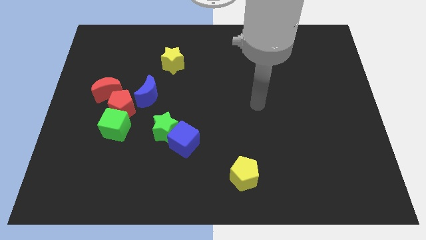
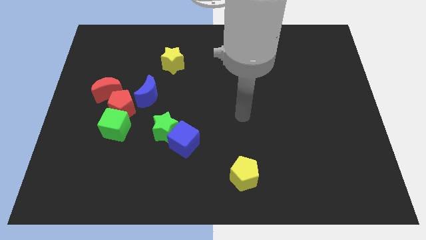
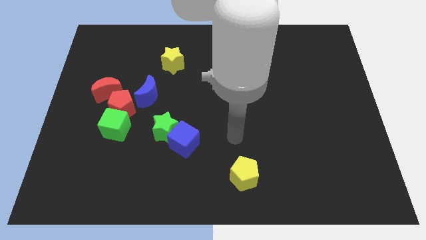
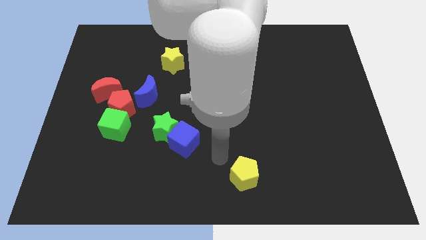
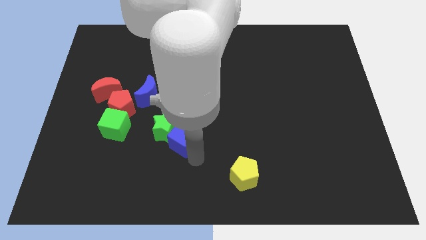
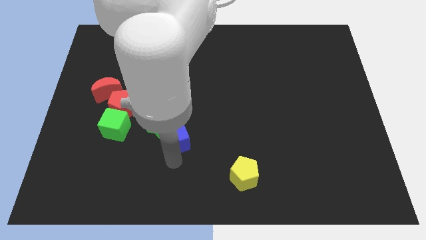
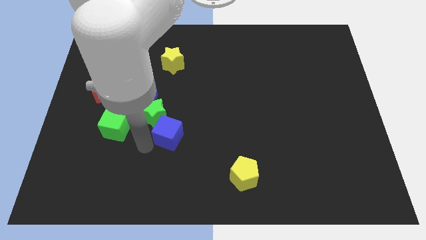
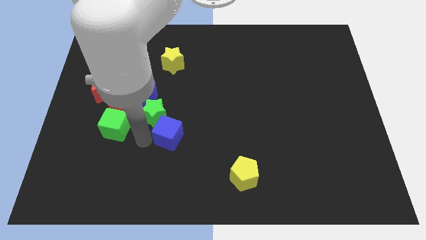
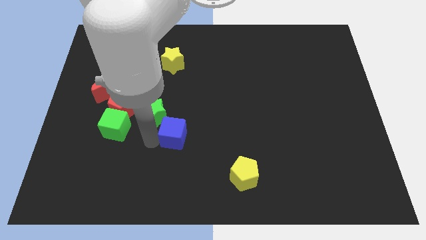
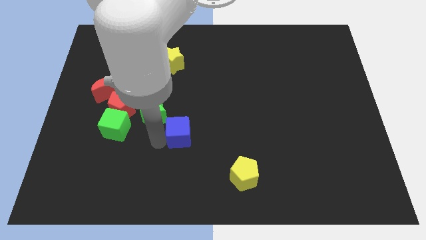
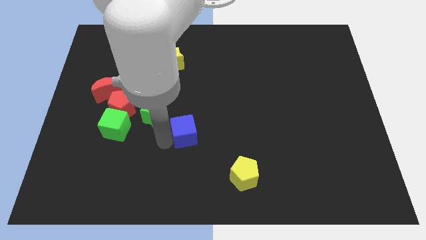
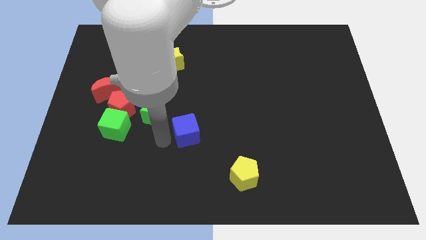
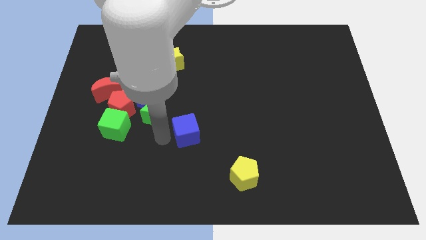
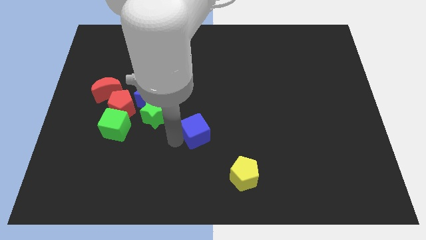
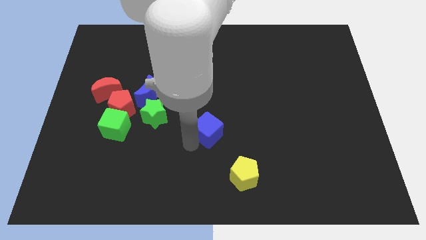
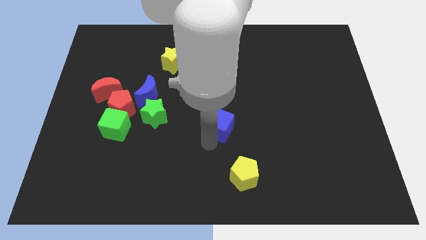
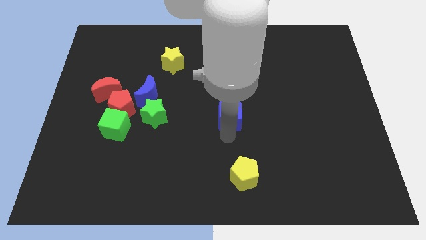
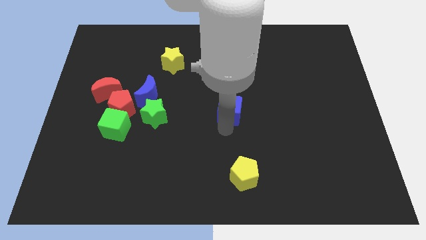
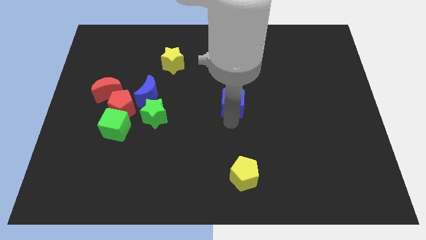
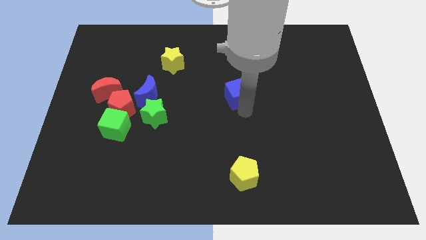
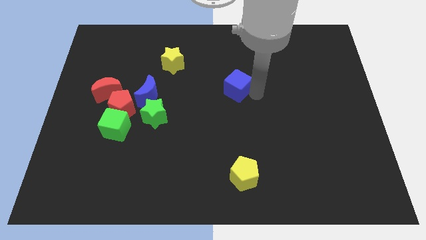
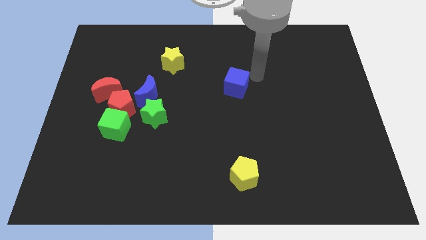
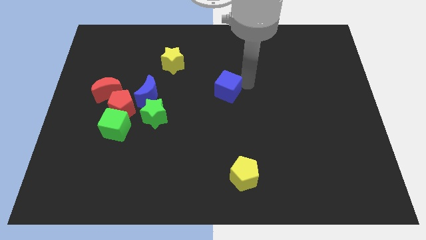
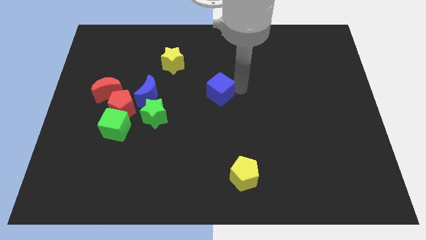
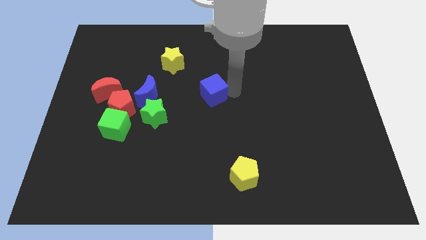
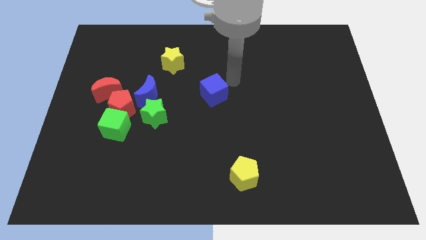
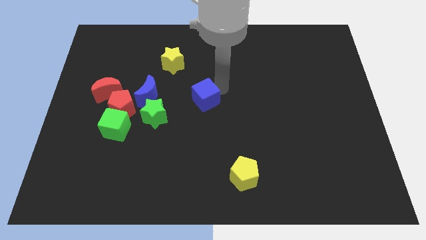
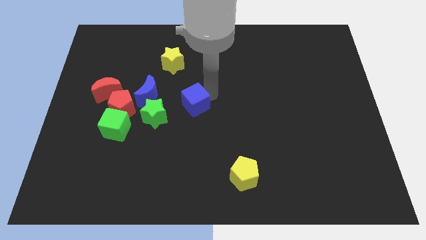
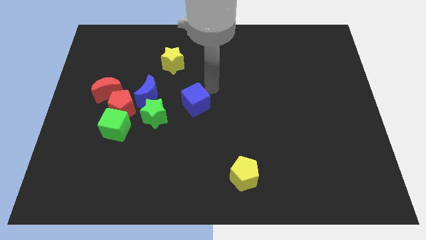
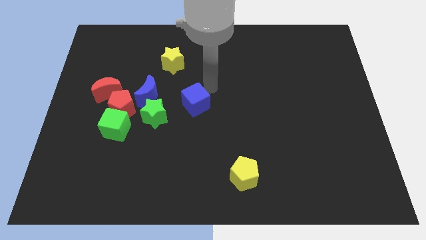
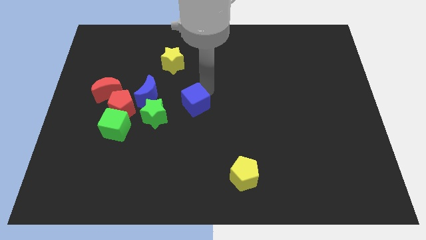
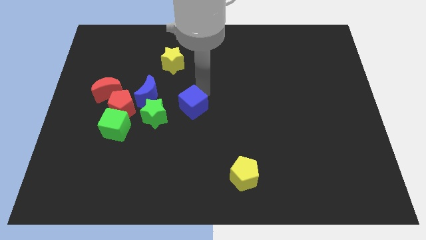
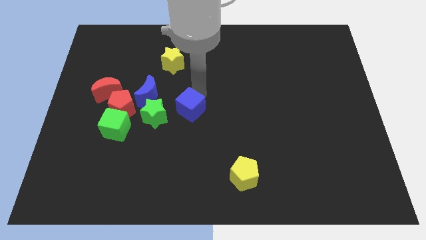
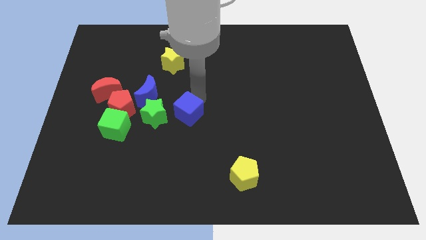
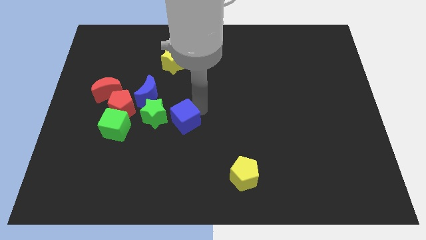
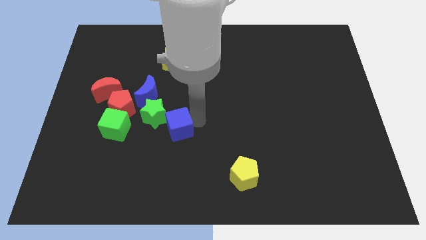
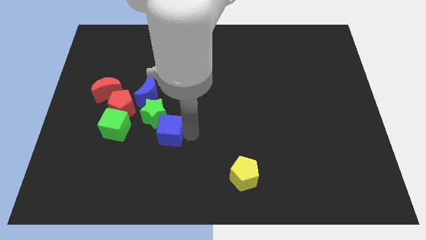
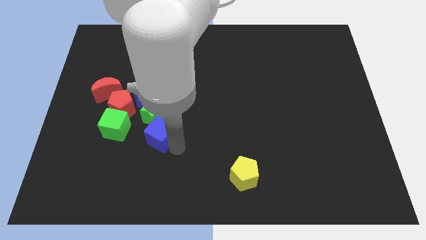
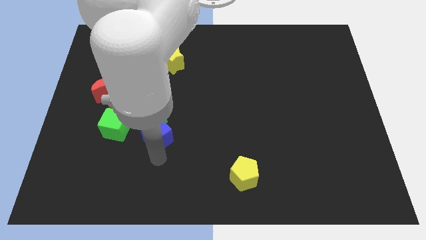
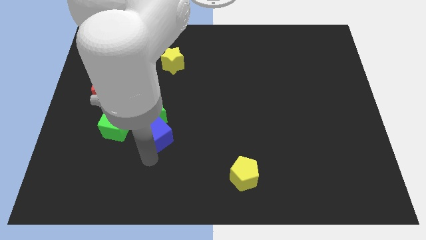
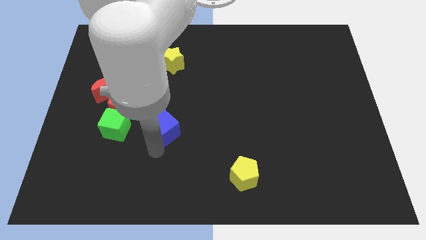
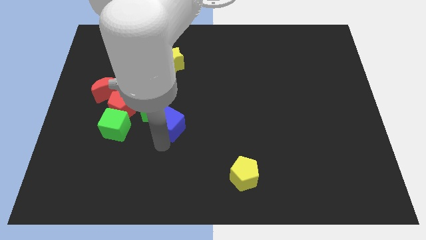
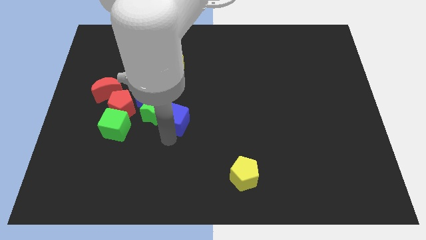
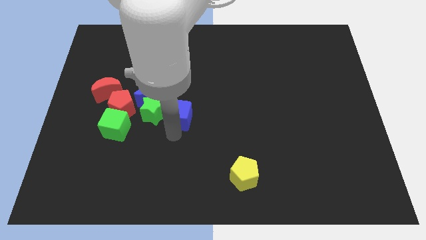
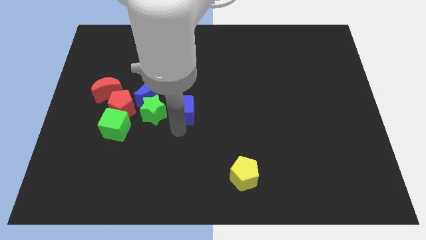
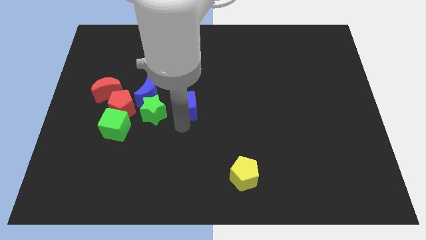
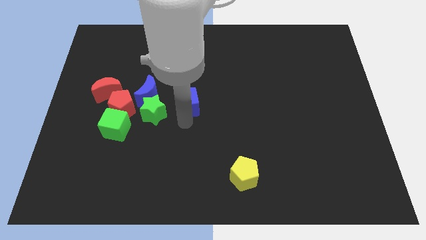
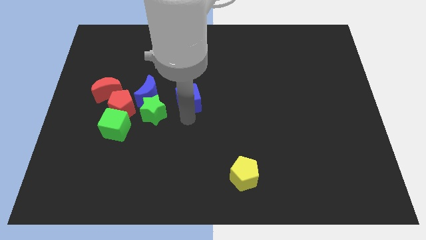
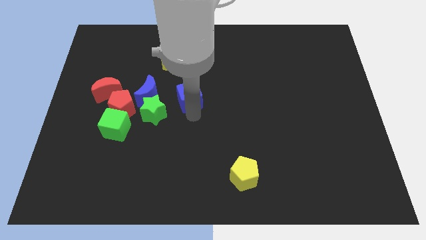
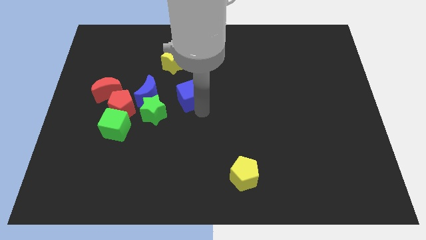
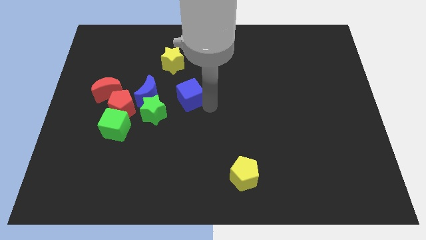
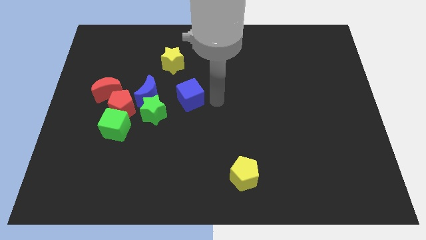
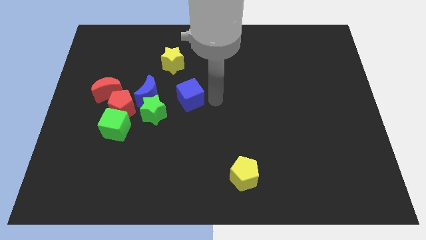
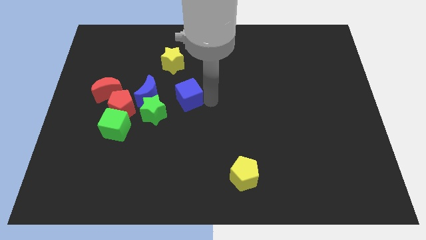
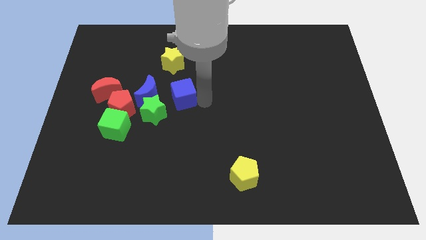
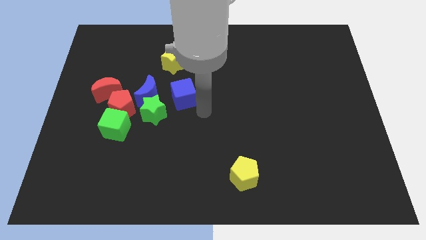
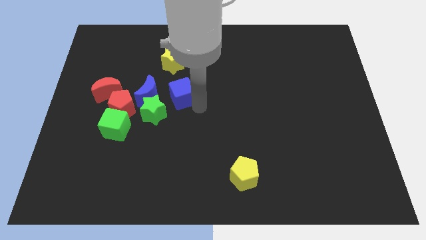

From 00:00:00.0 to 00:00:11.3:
push the blue cube up and to the left slightly

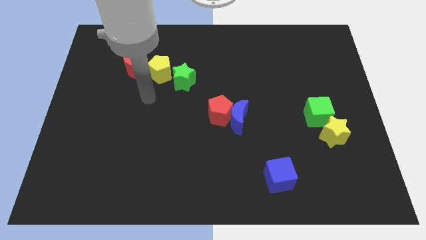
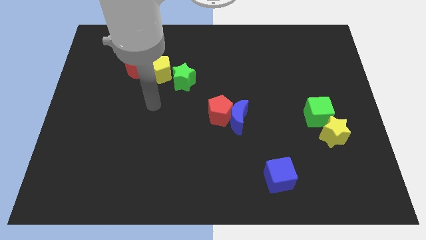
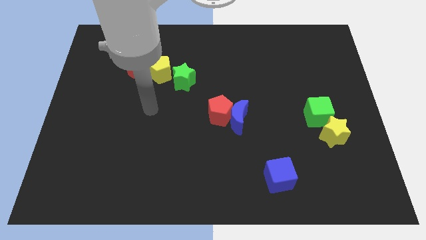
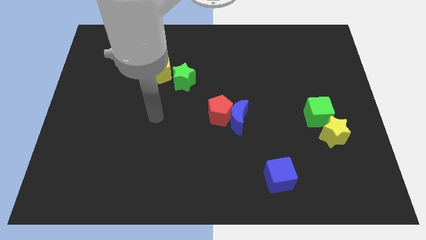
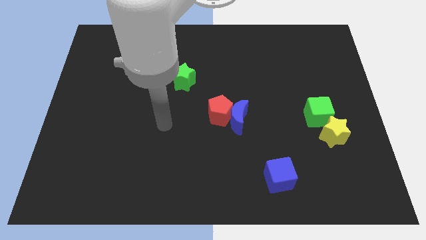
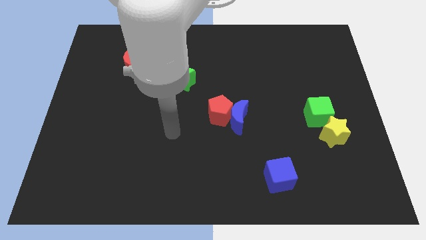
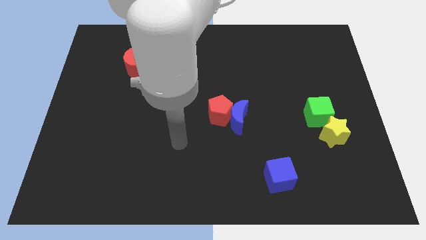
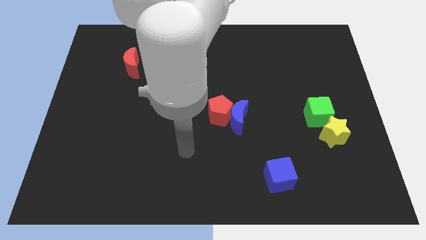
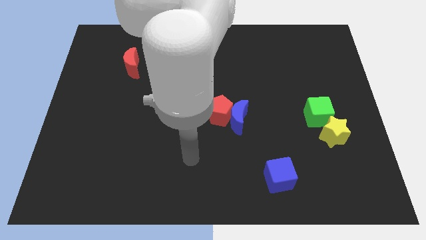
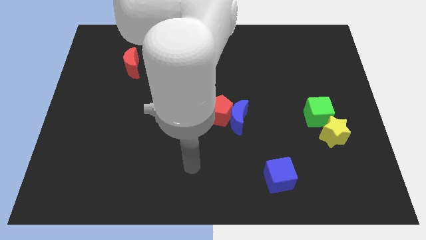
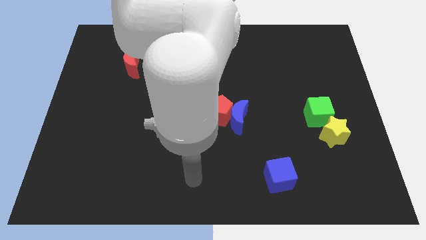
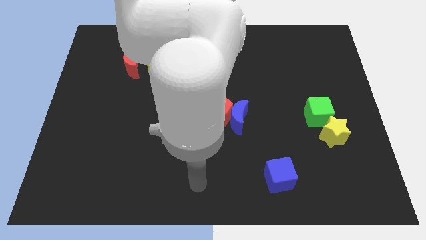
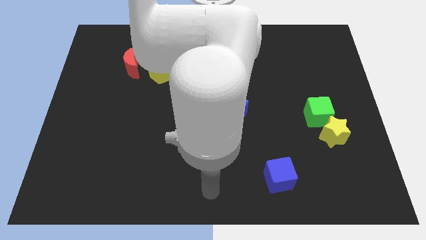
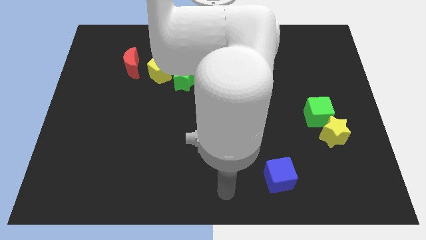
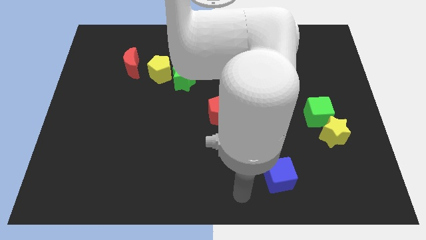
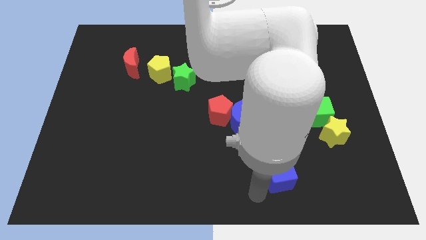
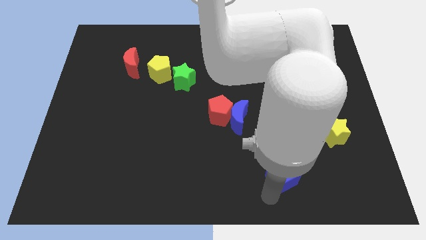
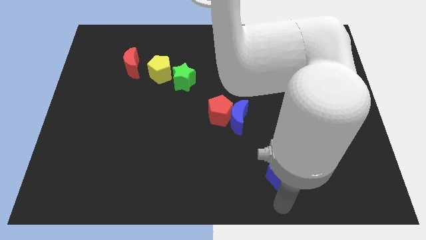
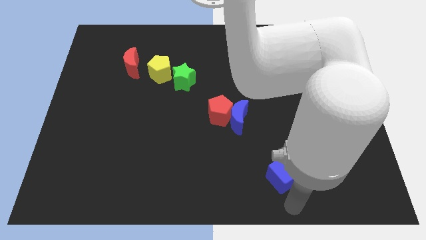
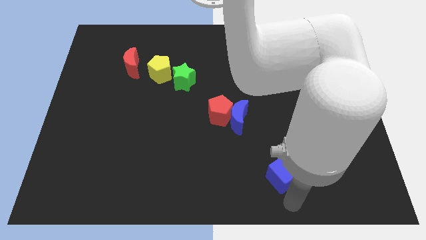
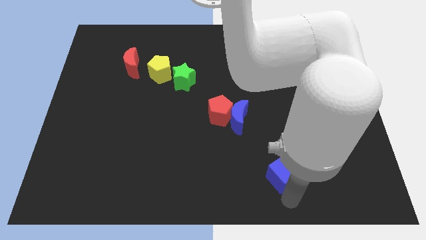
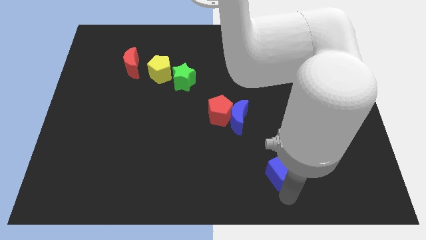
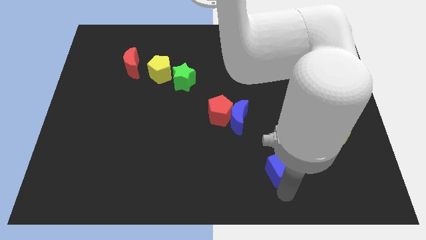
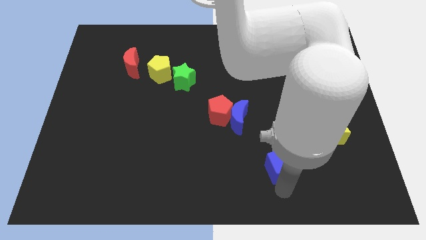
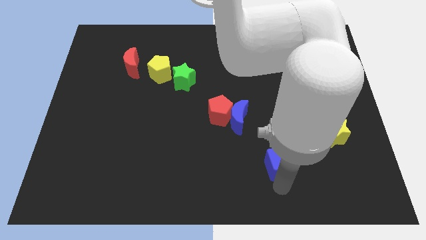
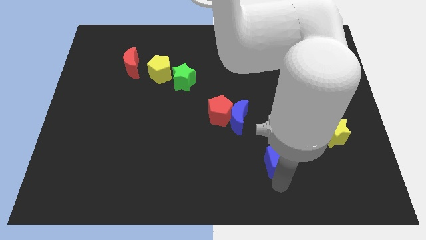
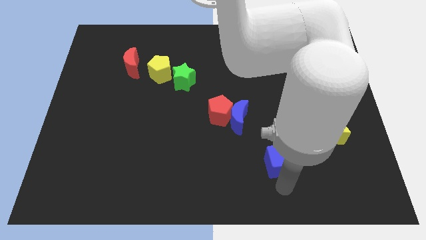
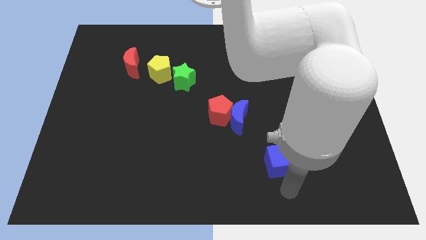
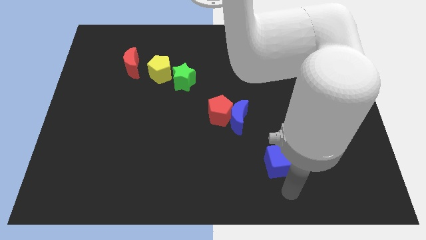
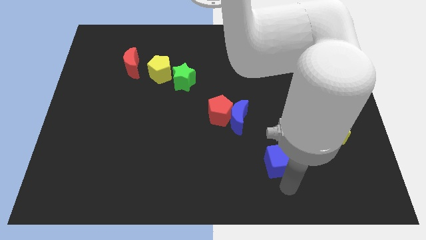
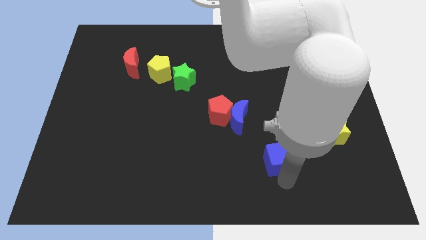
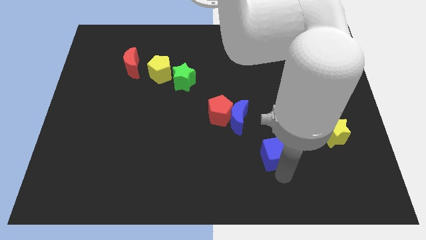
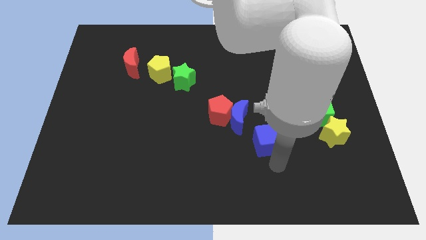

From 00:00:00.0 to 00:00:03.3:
slightly push the blue cube up
